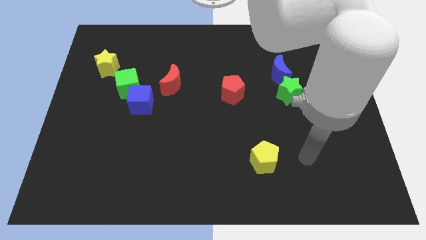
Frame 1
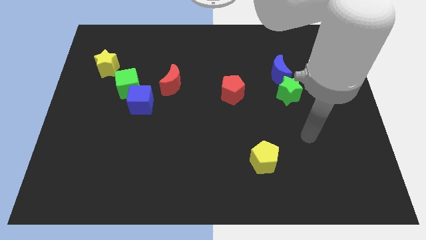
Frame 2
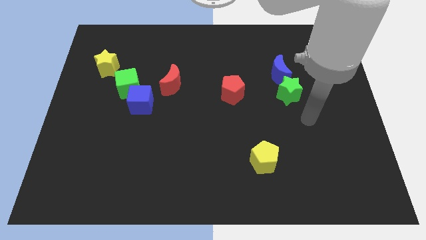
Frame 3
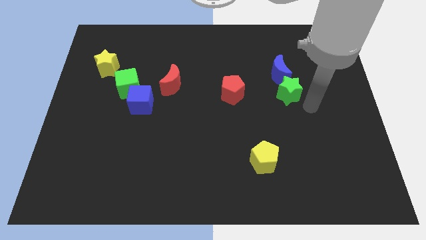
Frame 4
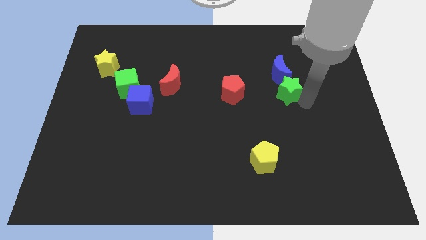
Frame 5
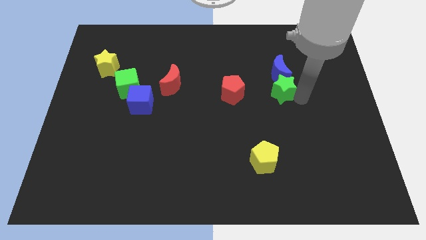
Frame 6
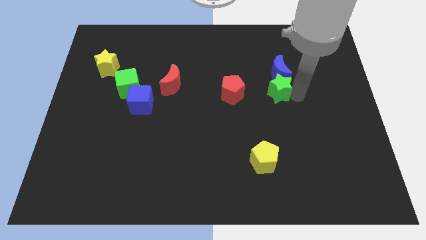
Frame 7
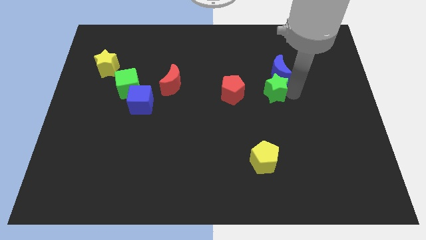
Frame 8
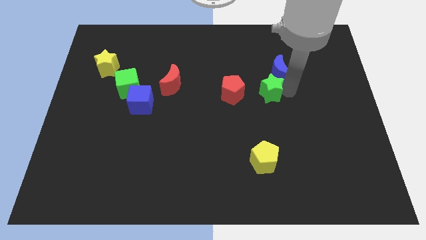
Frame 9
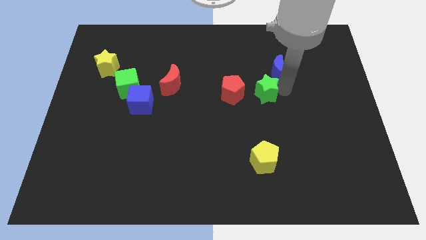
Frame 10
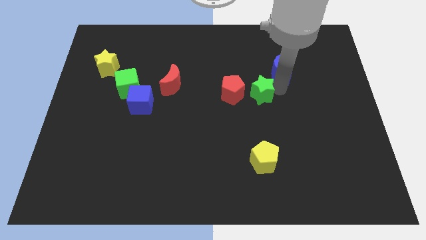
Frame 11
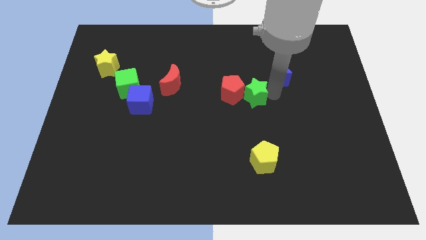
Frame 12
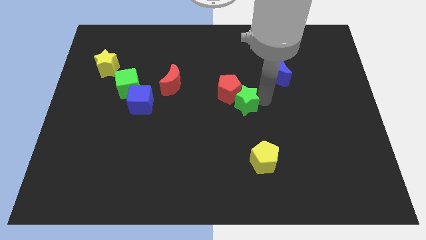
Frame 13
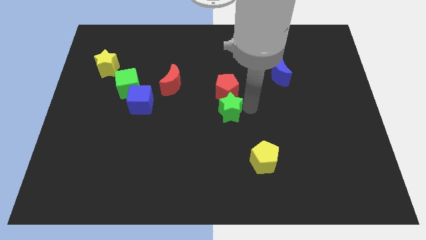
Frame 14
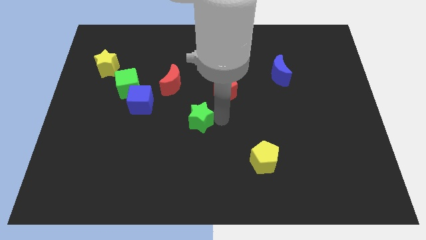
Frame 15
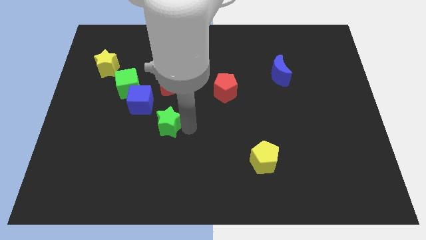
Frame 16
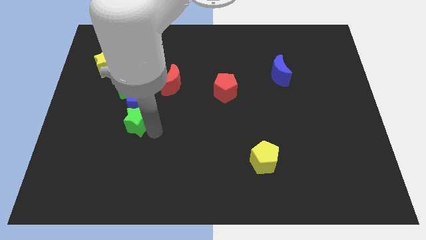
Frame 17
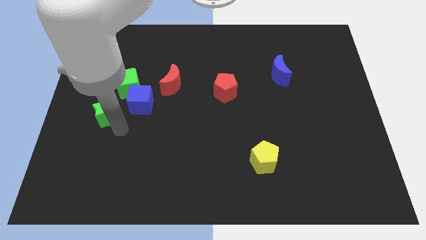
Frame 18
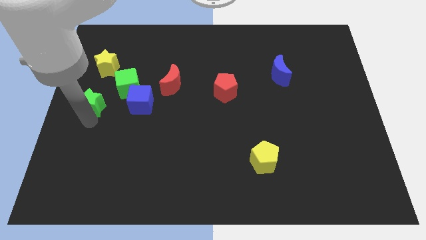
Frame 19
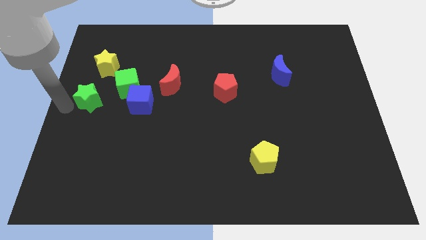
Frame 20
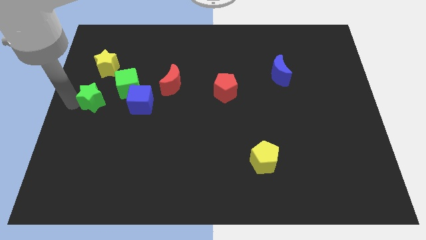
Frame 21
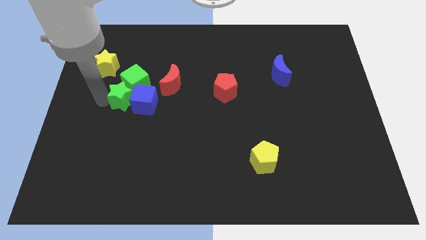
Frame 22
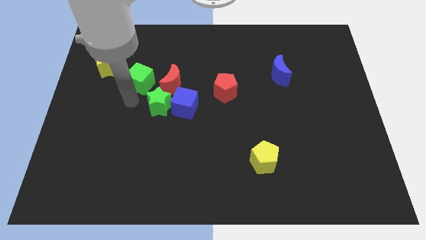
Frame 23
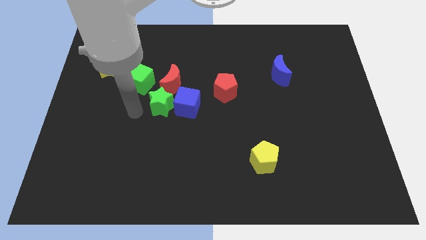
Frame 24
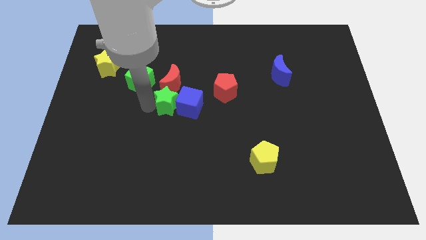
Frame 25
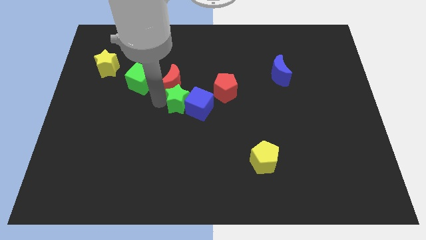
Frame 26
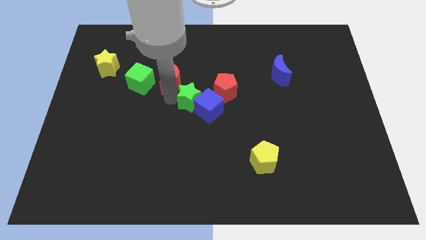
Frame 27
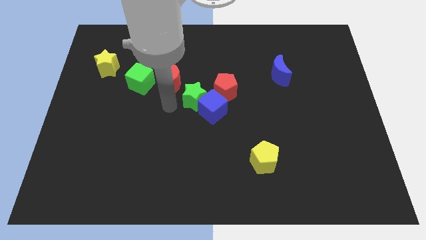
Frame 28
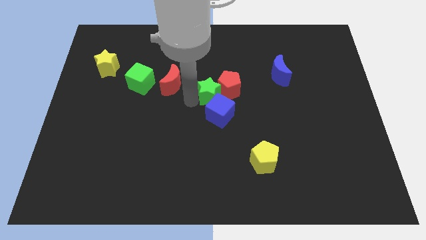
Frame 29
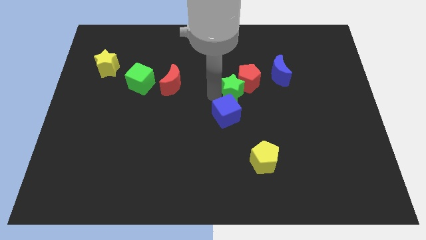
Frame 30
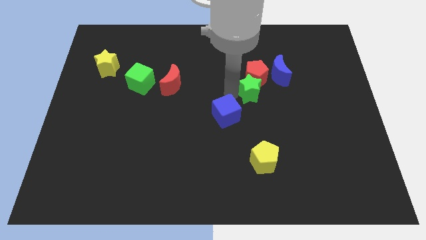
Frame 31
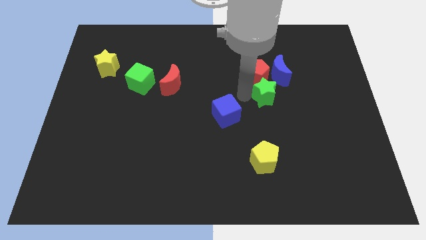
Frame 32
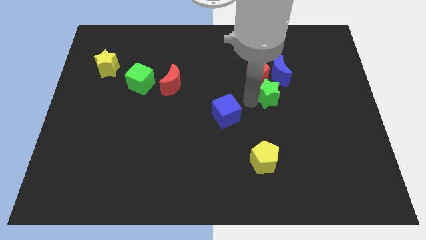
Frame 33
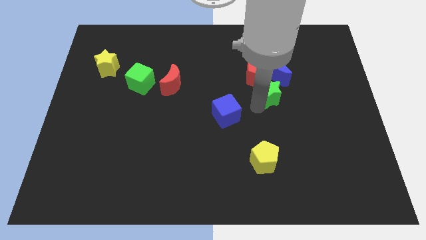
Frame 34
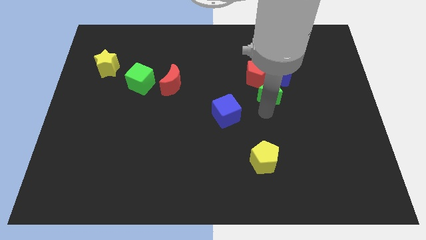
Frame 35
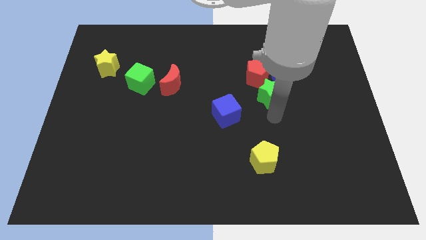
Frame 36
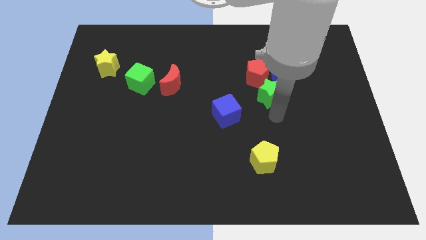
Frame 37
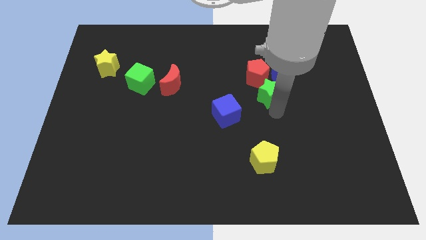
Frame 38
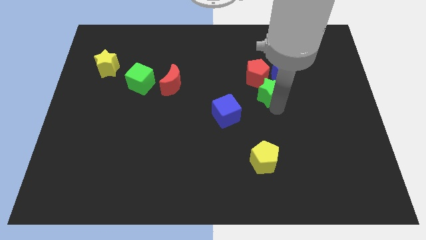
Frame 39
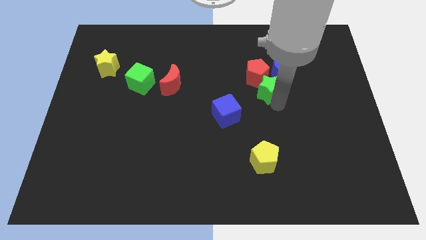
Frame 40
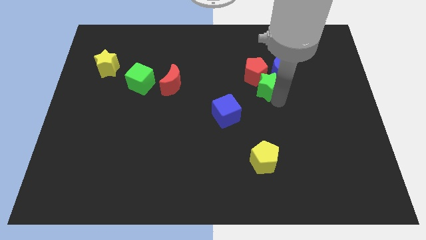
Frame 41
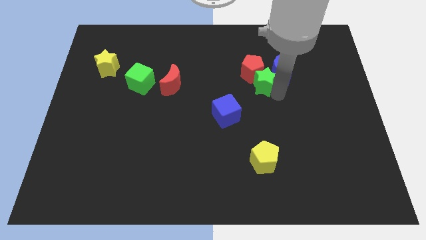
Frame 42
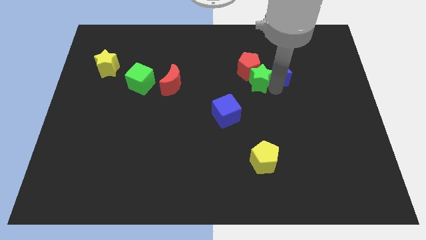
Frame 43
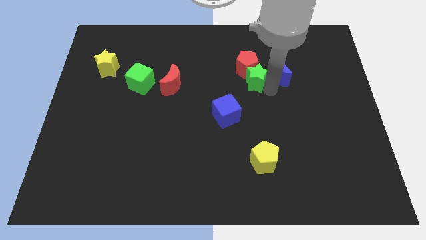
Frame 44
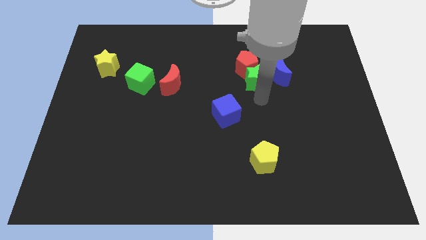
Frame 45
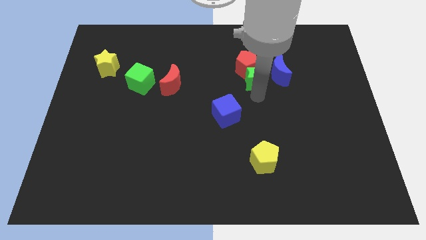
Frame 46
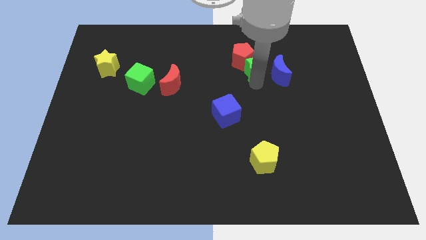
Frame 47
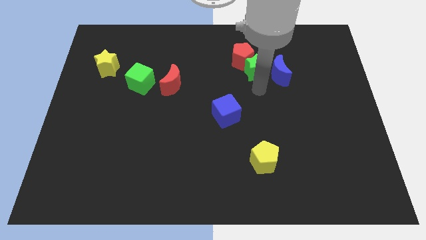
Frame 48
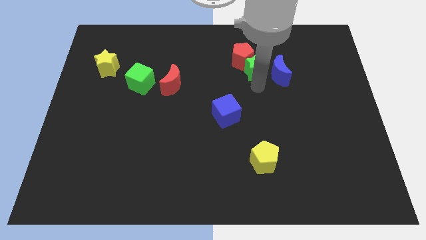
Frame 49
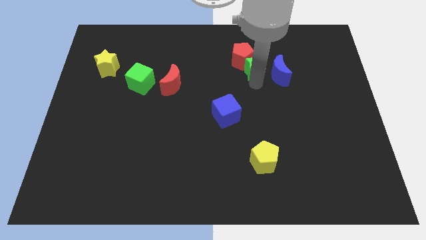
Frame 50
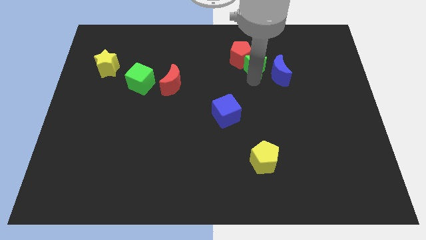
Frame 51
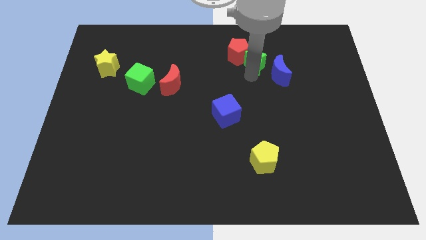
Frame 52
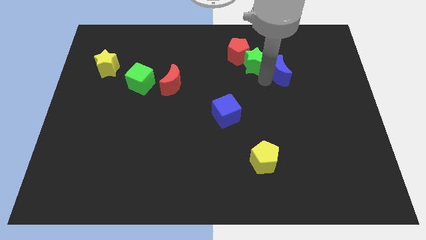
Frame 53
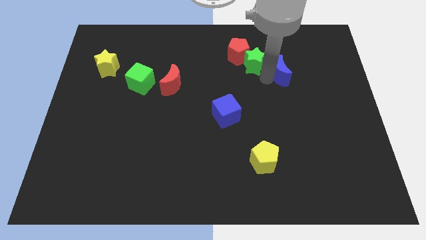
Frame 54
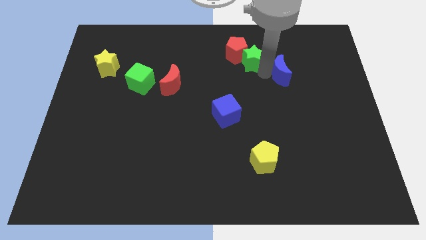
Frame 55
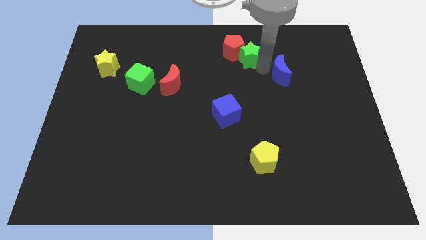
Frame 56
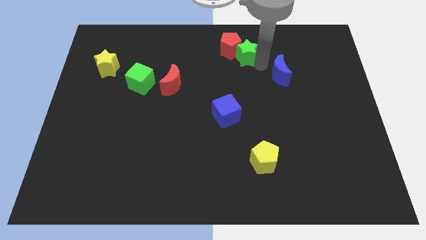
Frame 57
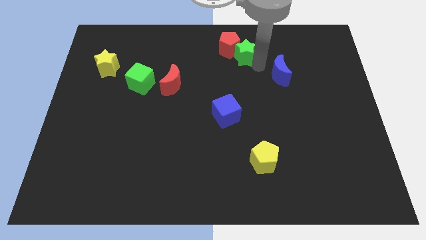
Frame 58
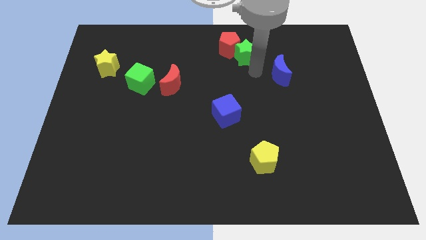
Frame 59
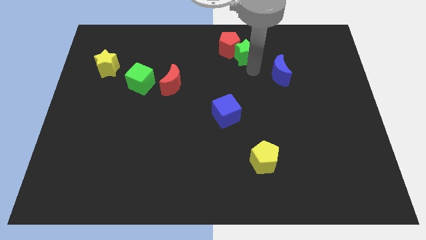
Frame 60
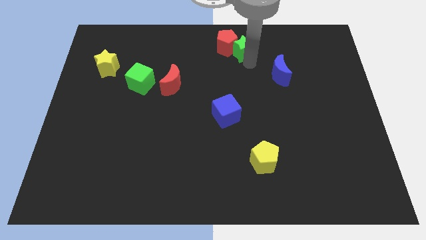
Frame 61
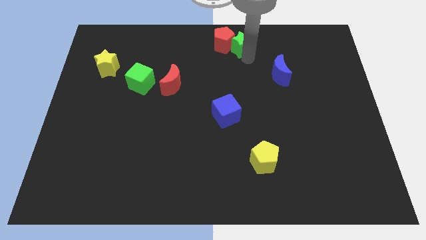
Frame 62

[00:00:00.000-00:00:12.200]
put the green star to the top side
